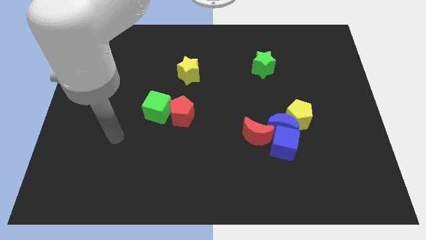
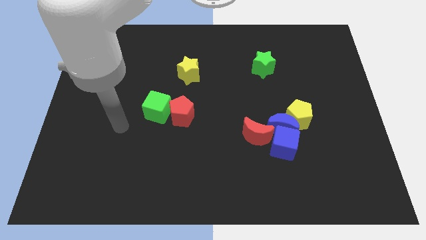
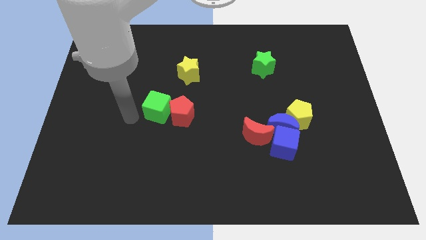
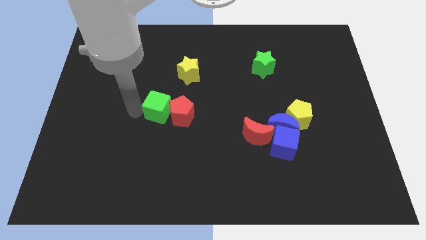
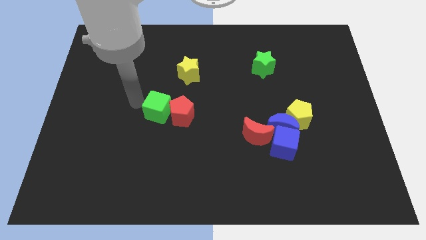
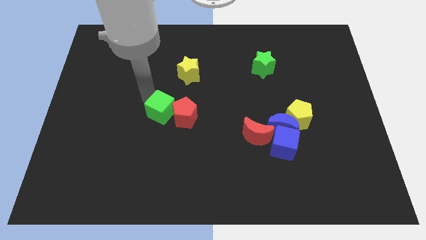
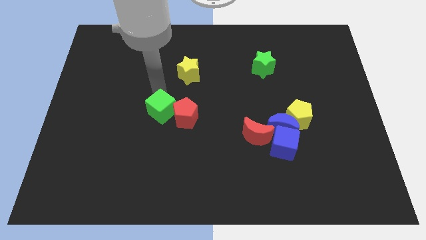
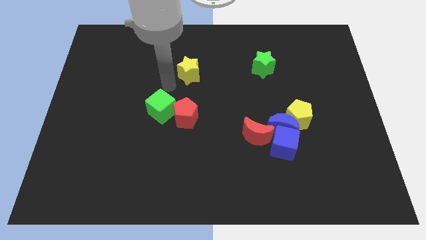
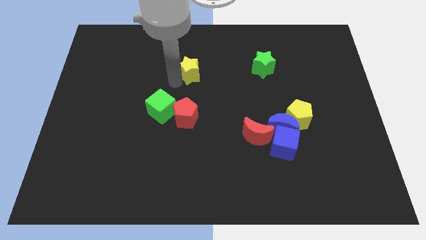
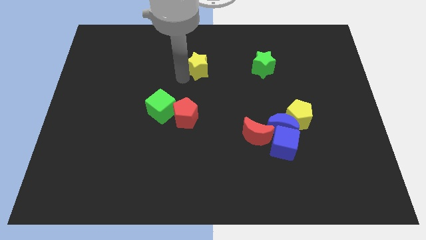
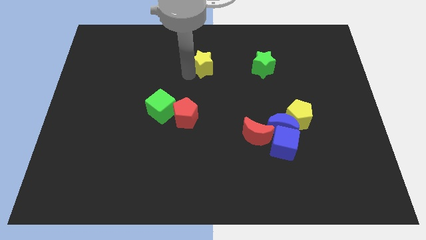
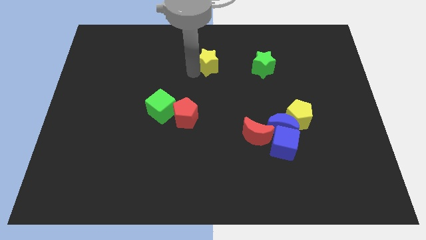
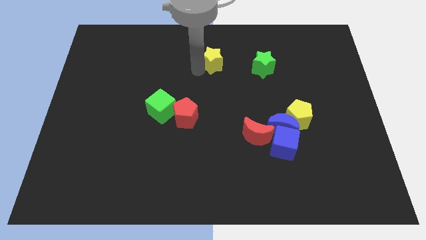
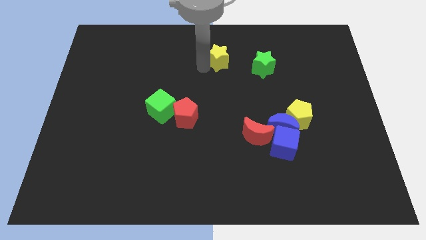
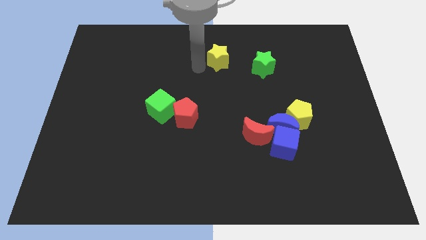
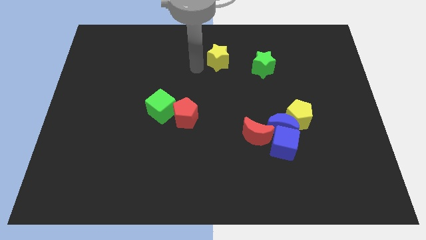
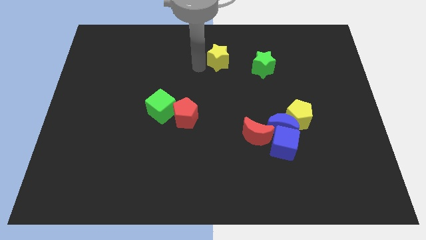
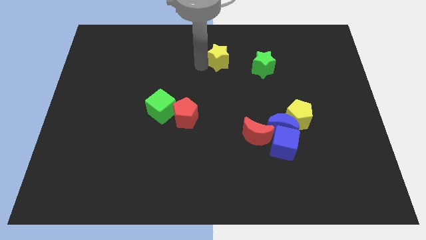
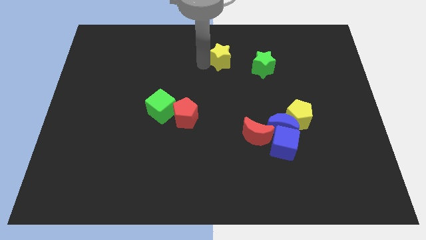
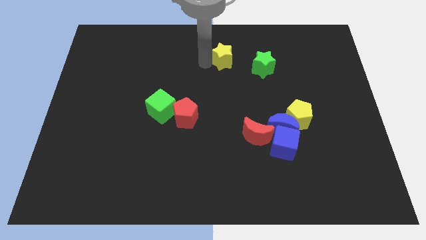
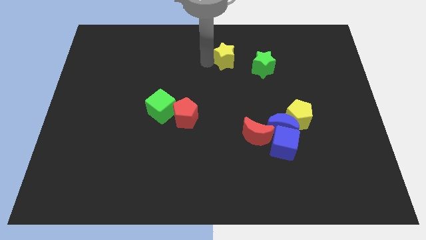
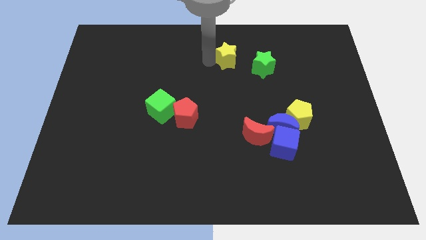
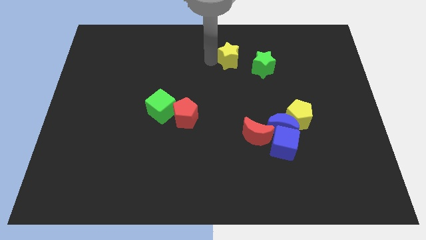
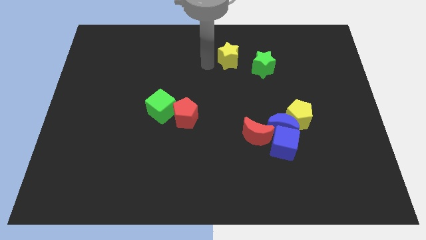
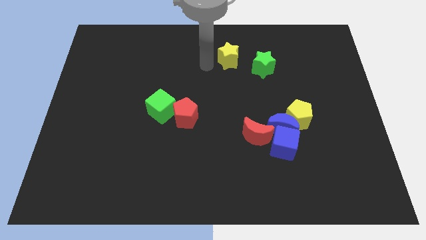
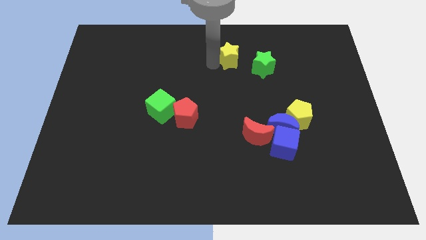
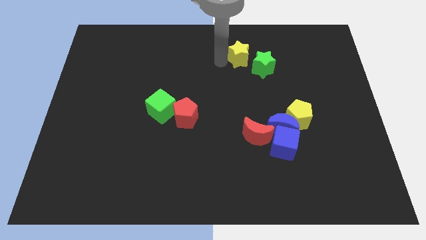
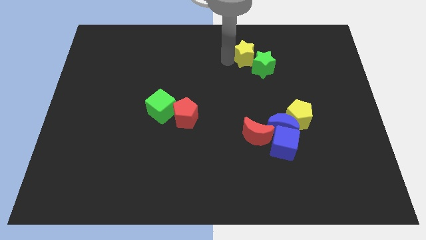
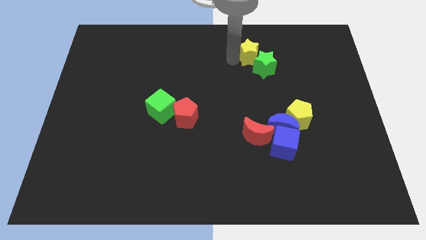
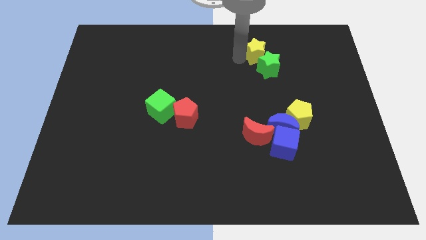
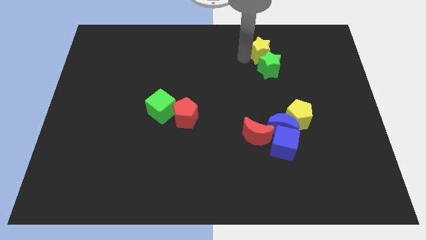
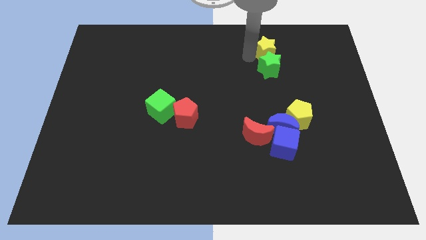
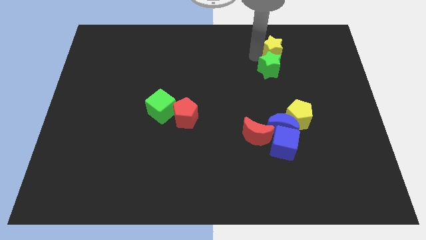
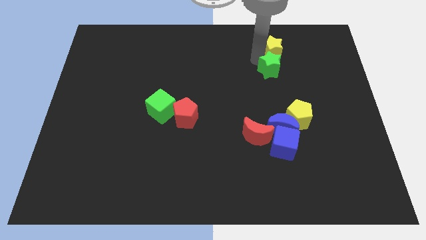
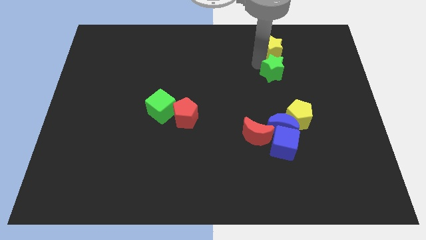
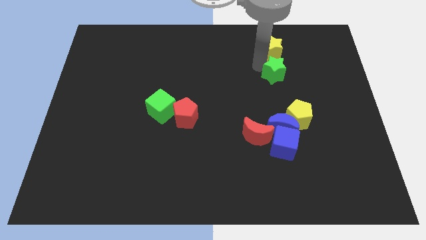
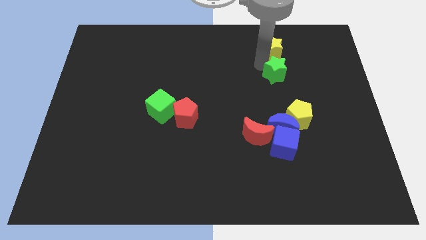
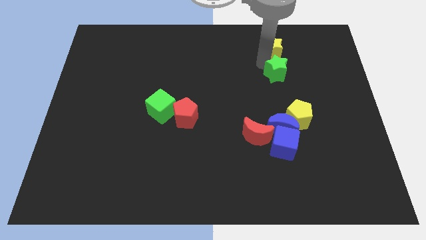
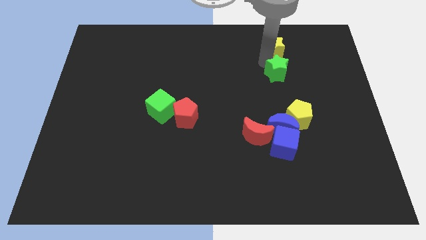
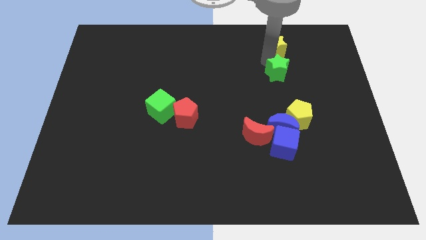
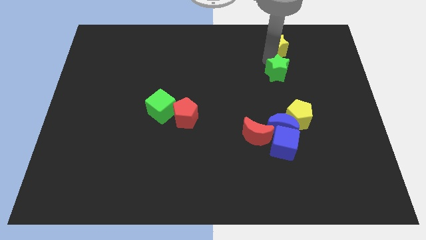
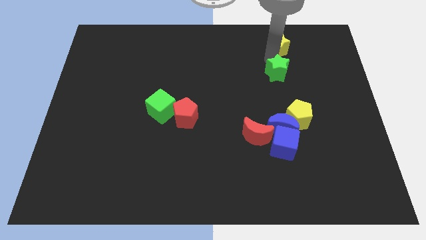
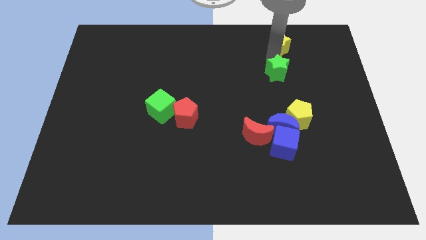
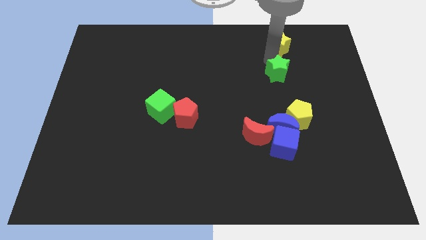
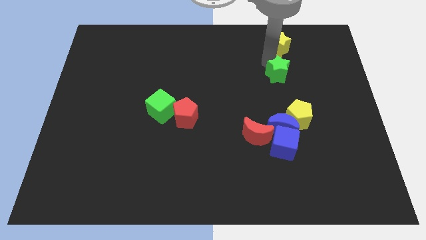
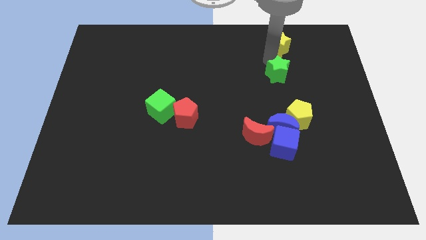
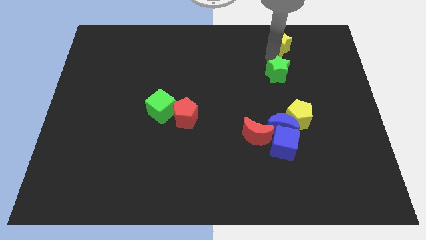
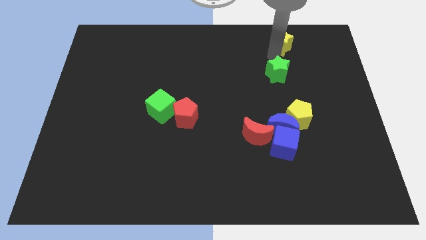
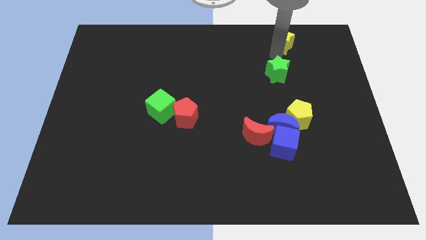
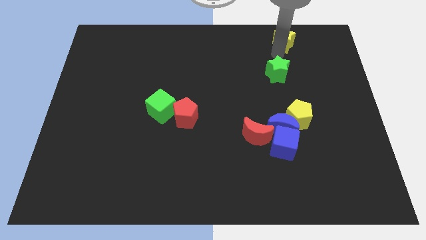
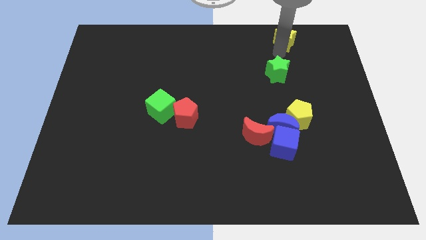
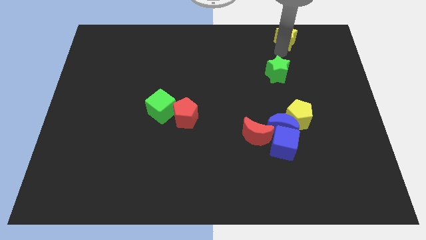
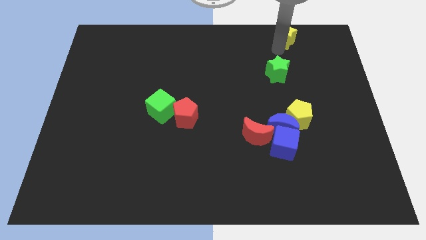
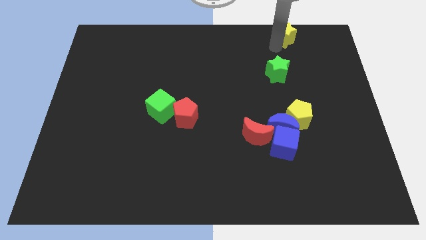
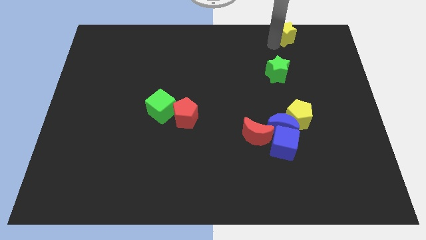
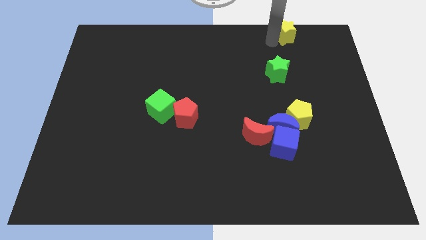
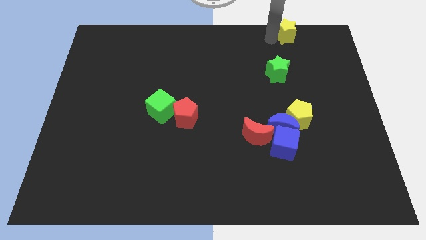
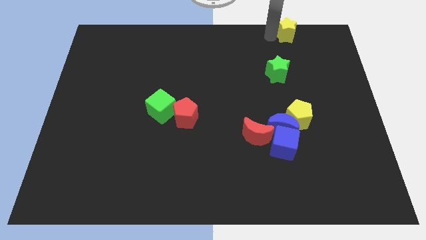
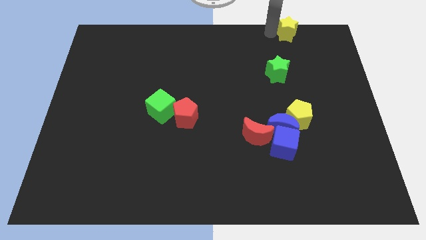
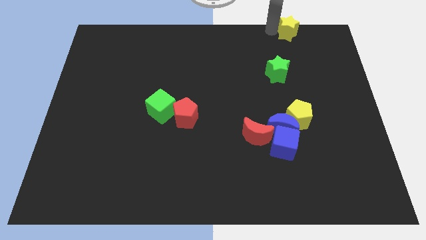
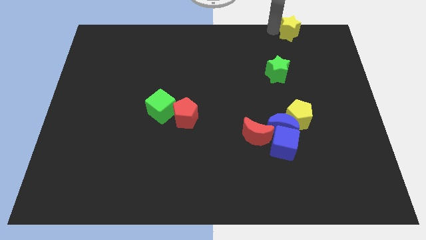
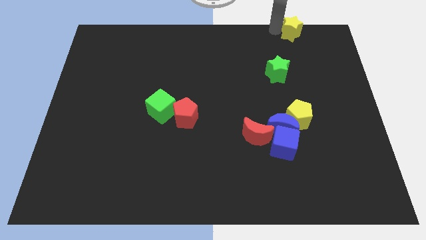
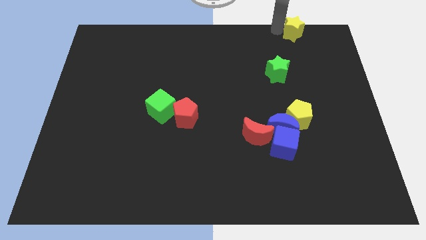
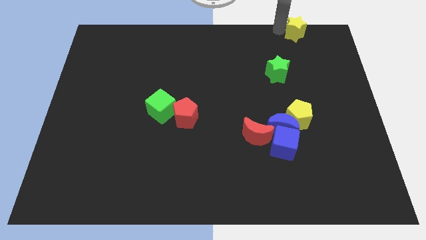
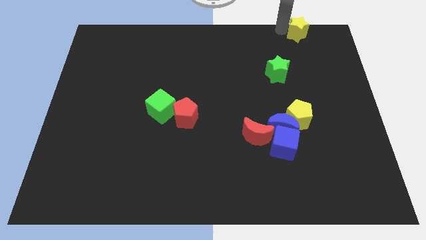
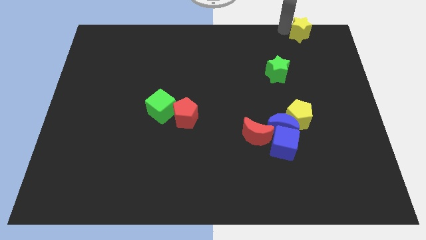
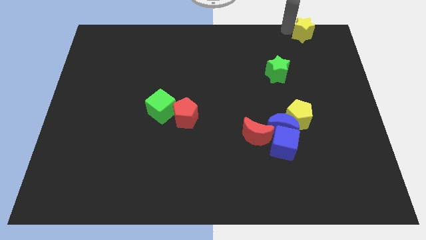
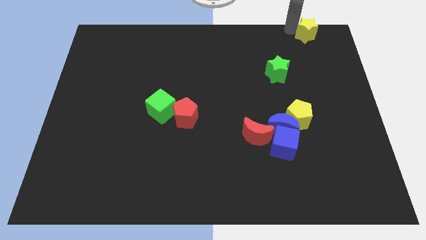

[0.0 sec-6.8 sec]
move the yellow star to the top right
